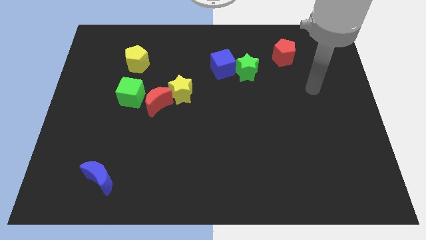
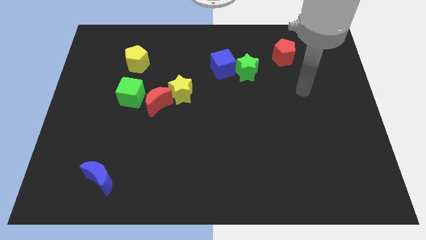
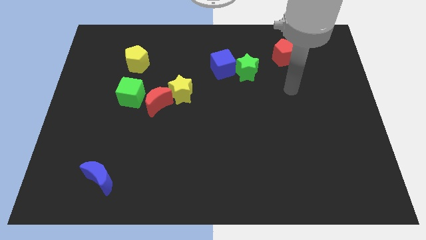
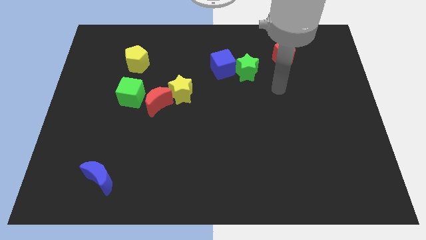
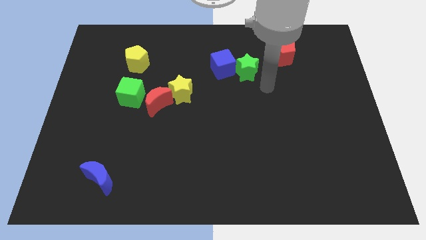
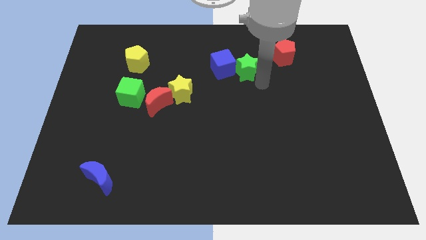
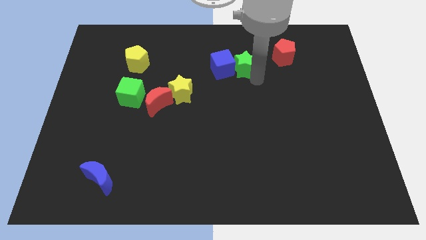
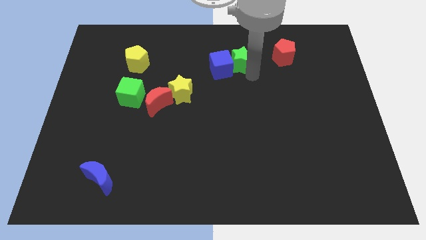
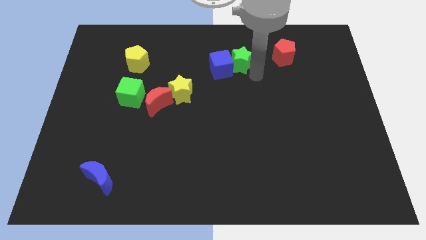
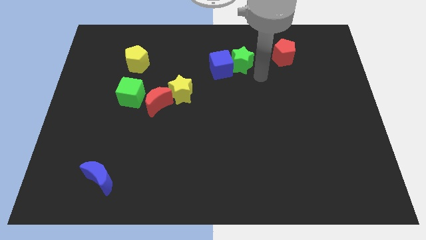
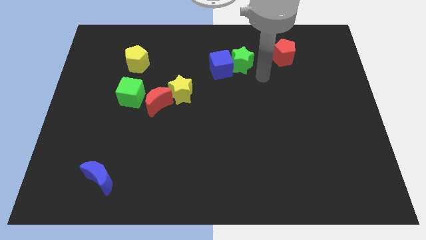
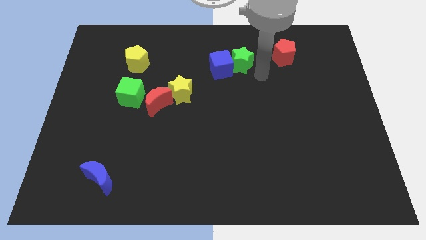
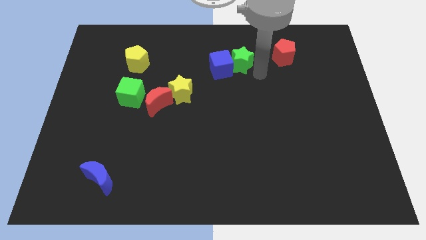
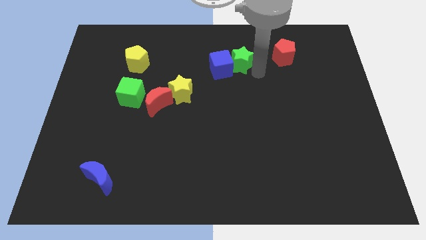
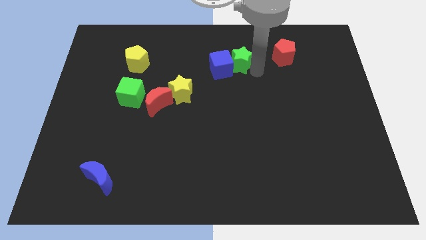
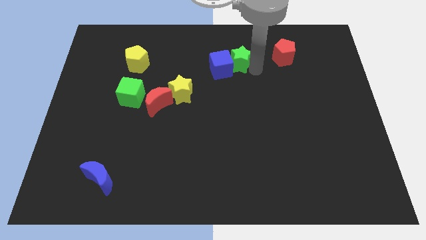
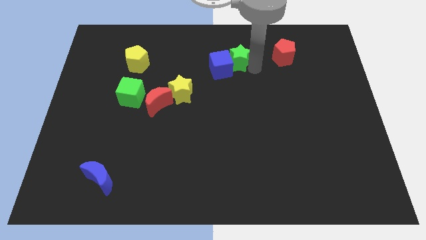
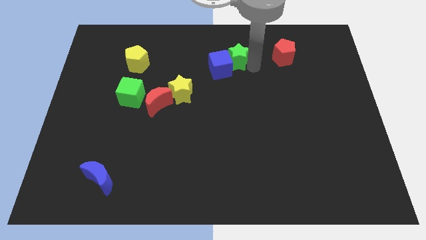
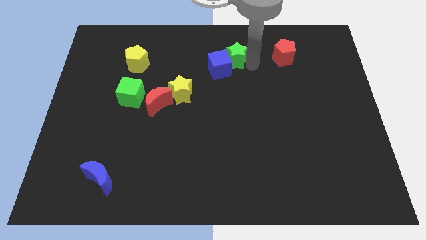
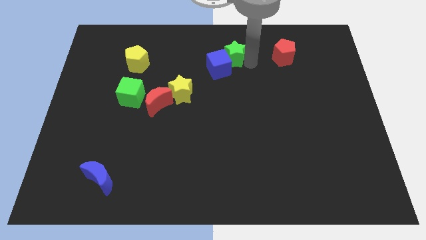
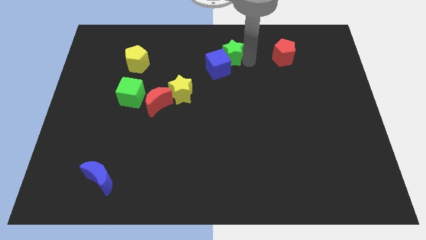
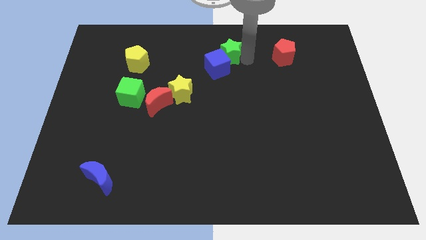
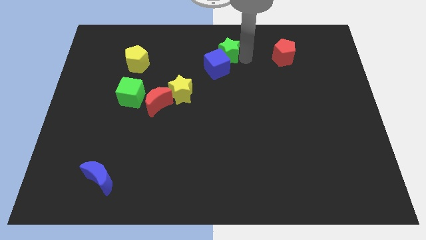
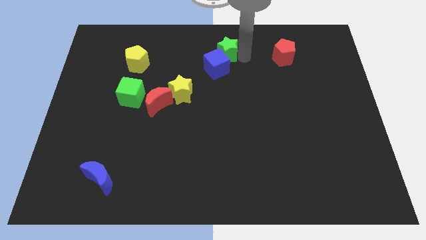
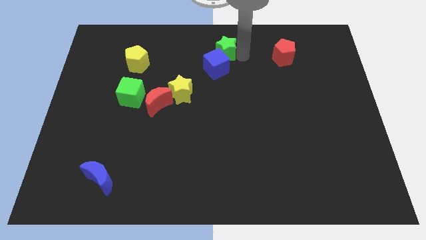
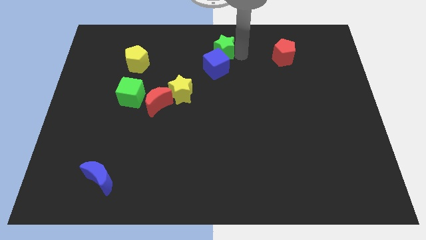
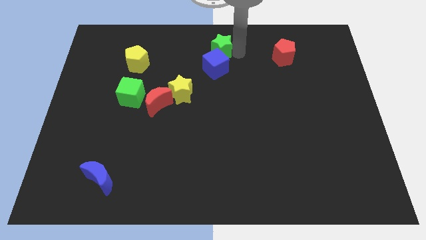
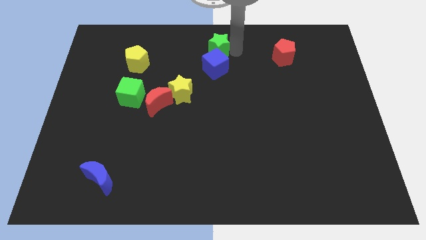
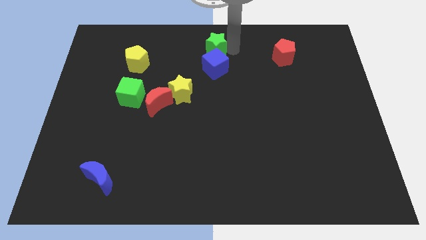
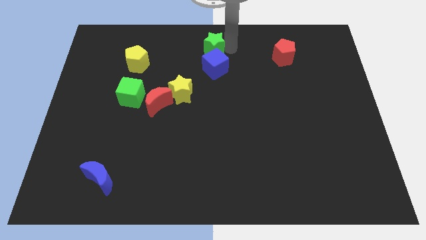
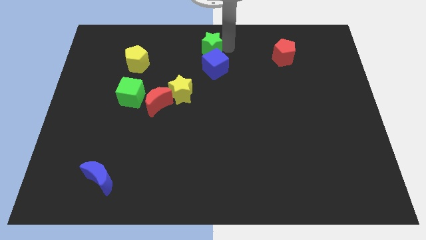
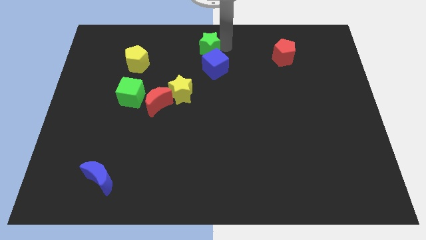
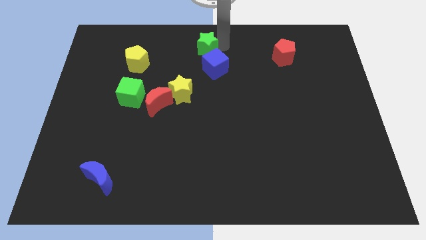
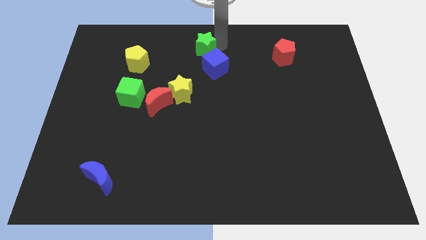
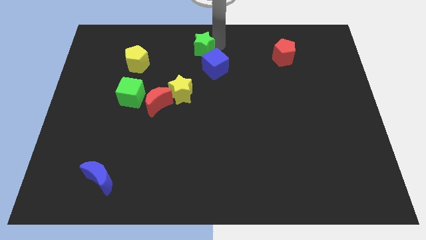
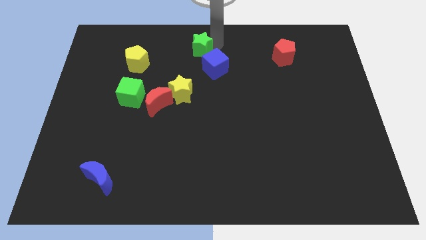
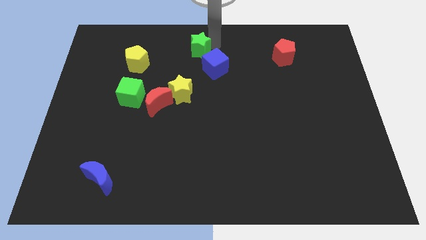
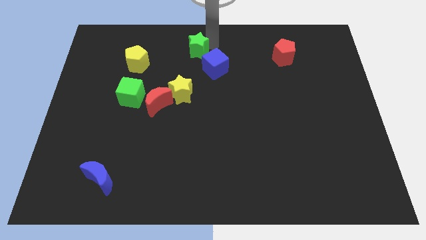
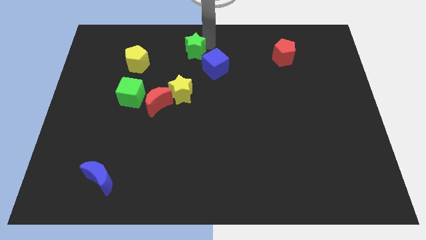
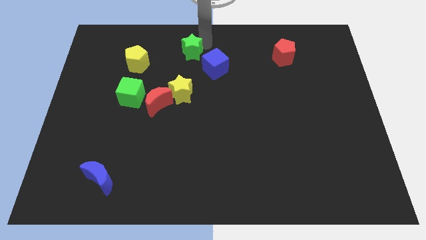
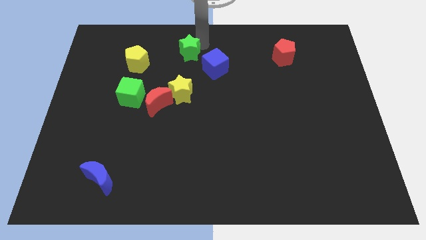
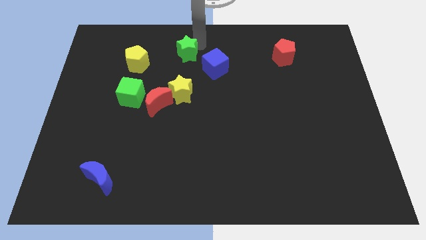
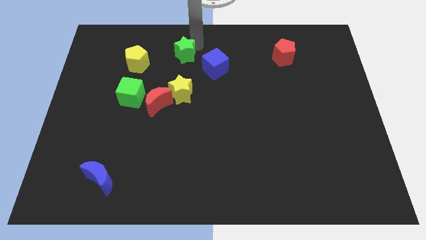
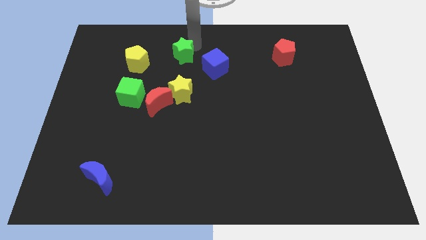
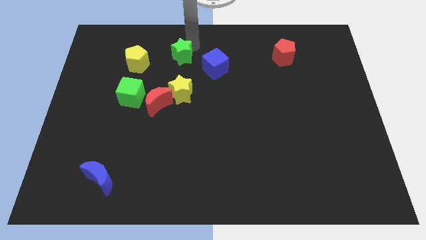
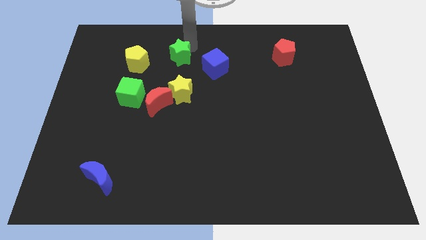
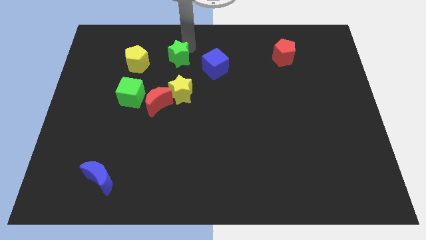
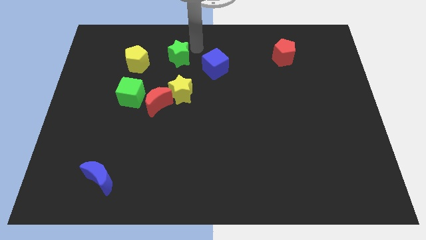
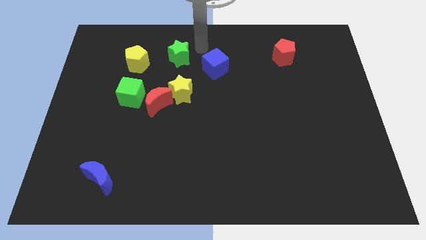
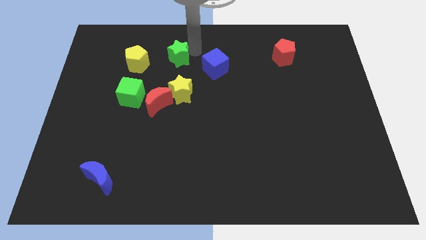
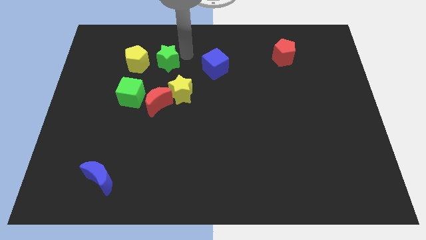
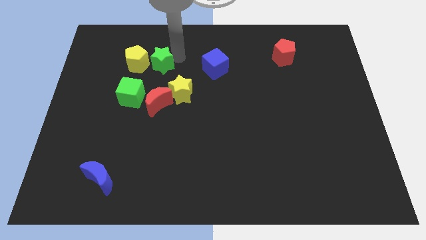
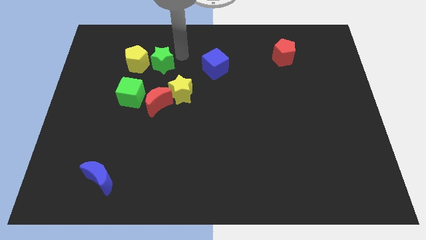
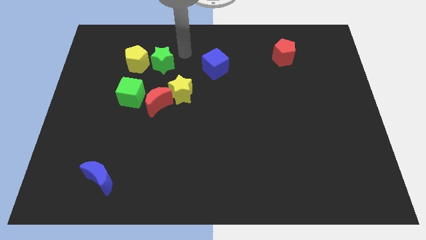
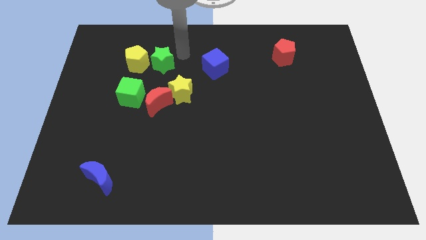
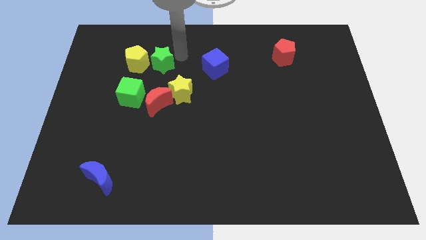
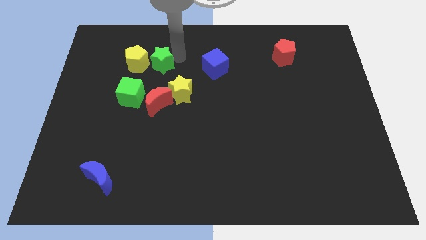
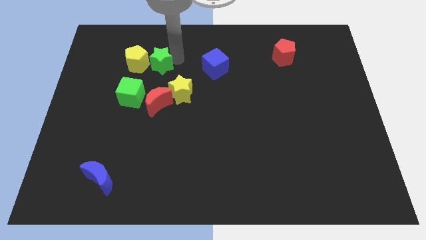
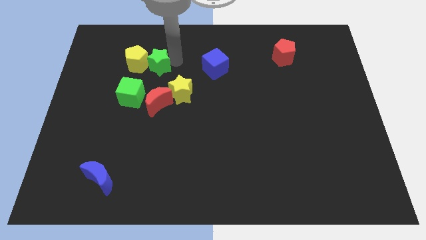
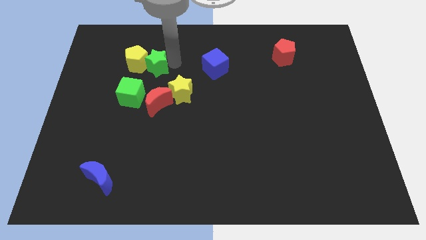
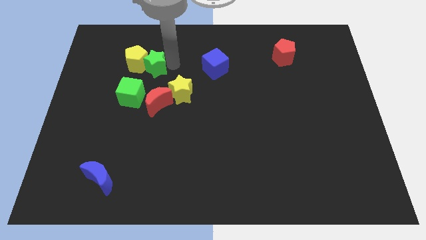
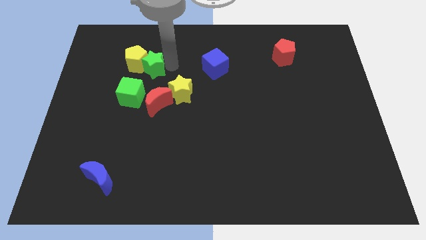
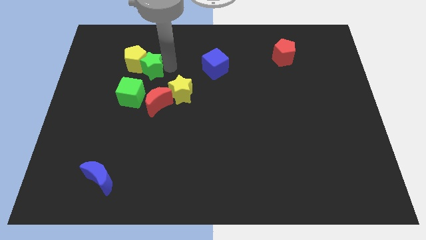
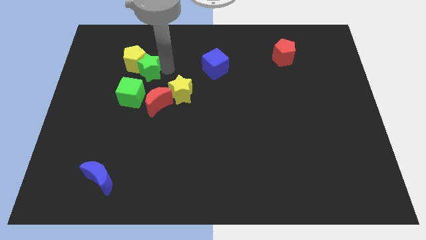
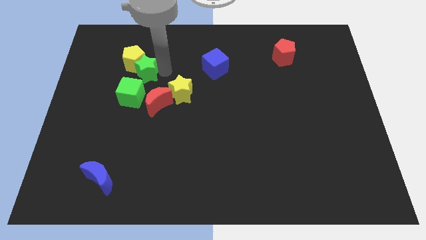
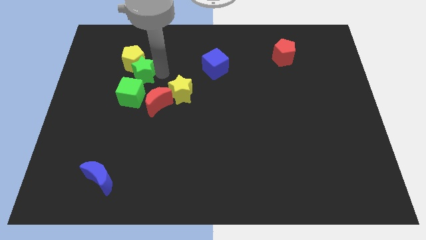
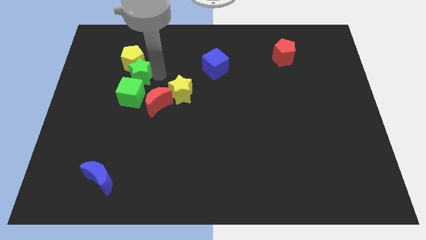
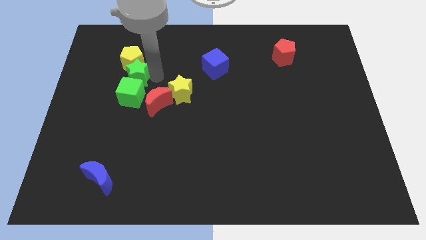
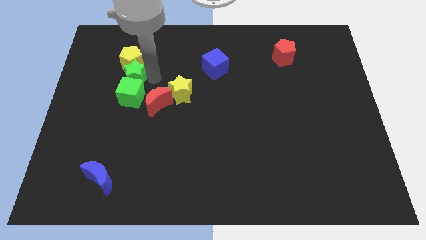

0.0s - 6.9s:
move the green star to the top left side of the green cube

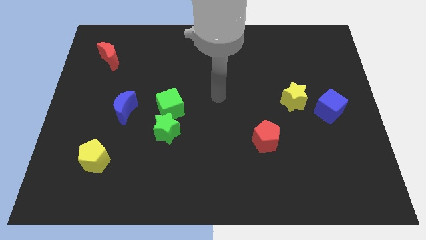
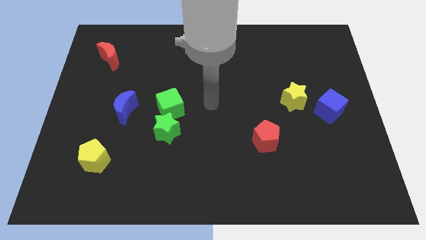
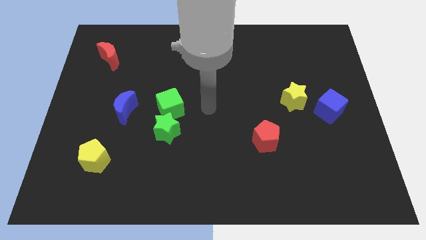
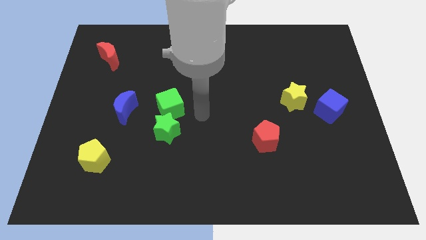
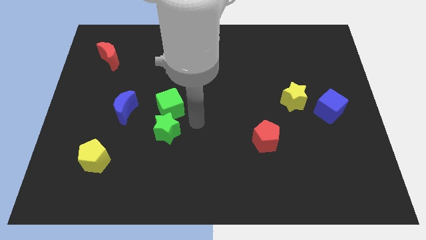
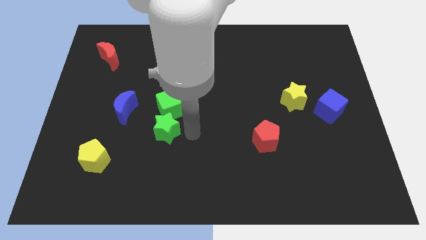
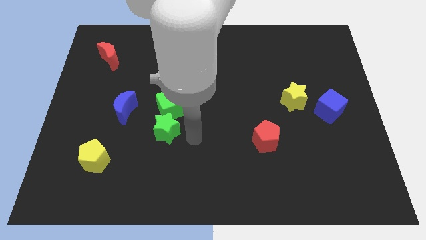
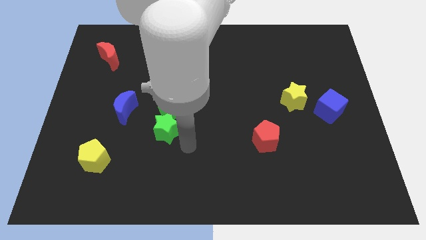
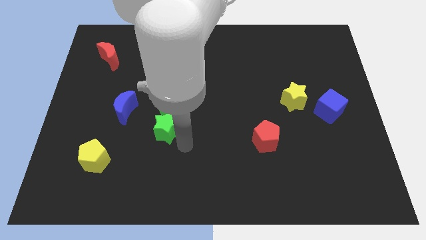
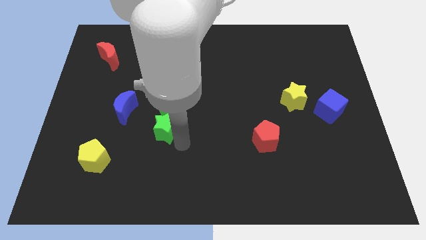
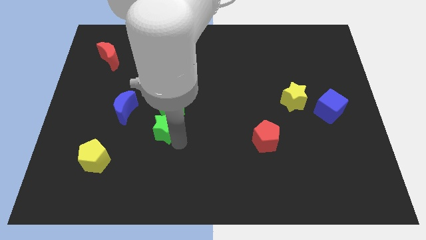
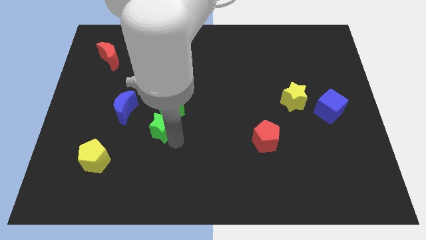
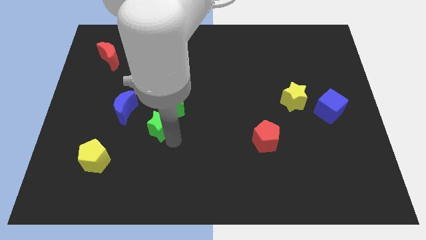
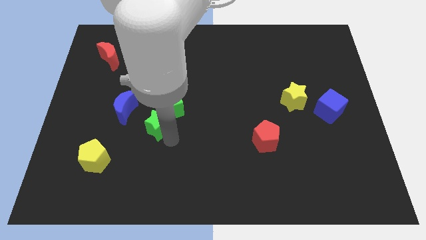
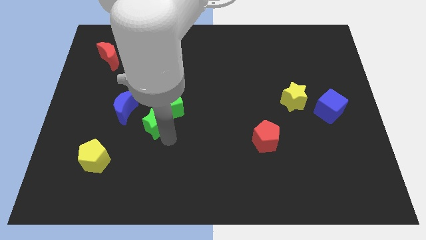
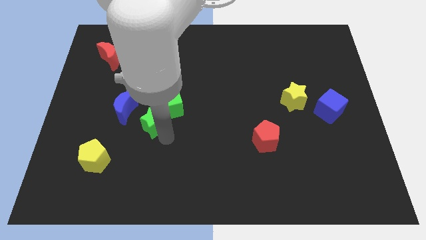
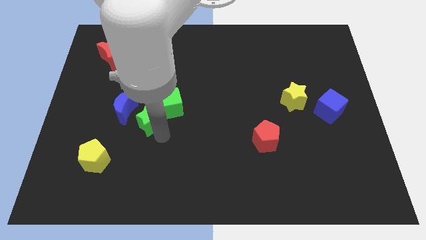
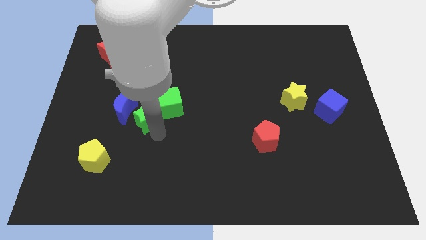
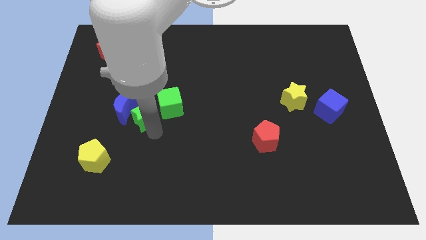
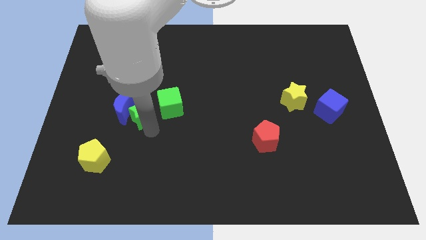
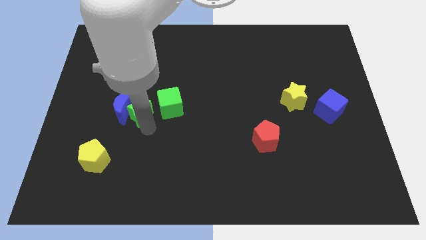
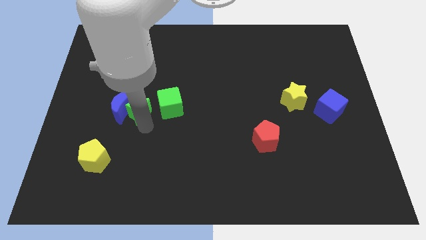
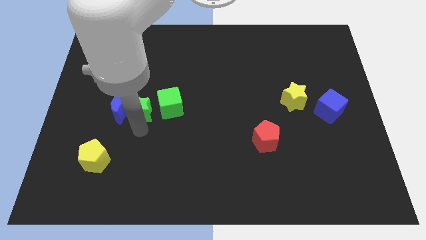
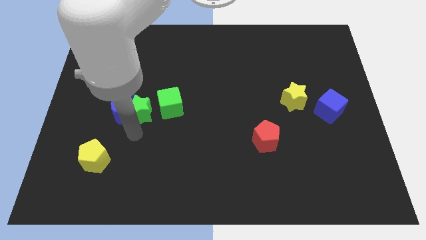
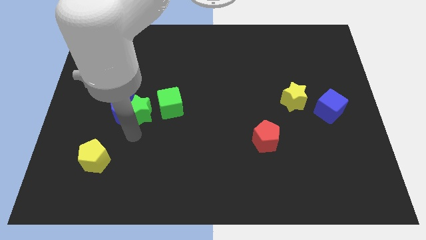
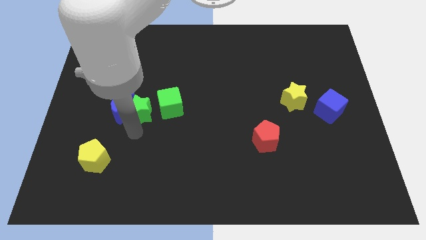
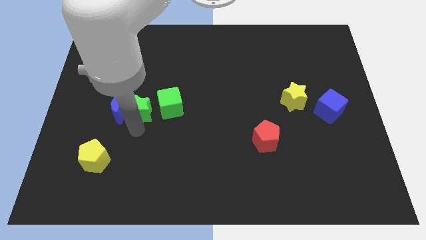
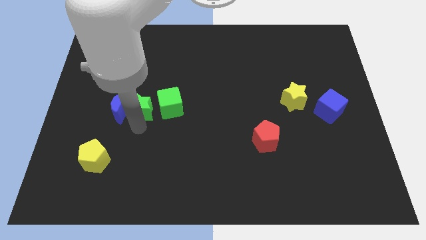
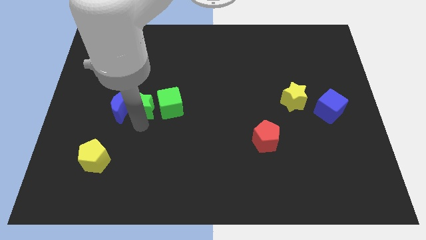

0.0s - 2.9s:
push the green star to the top left of the green cube
